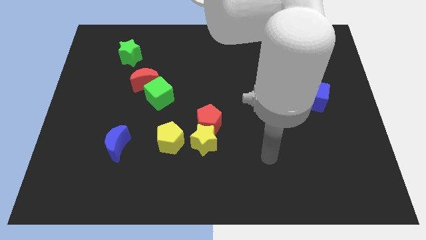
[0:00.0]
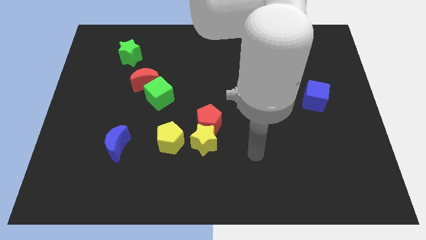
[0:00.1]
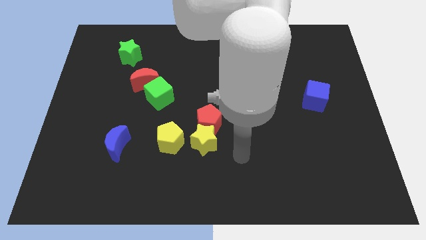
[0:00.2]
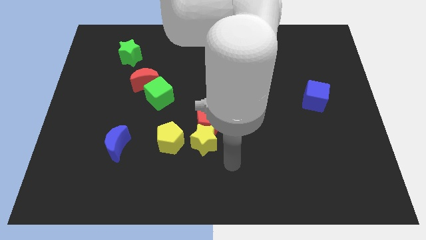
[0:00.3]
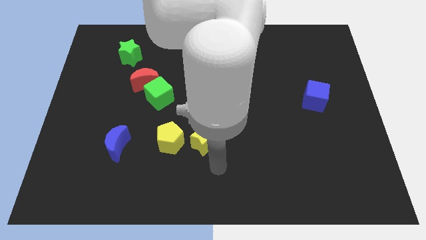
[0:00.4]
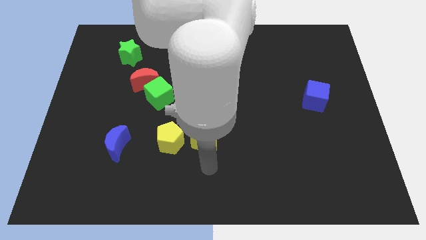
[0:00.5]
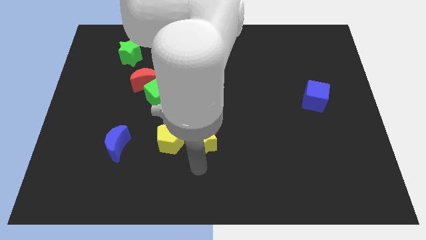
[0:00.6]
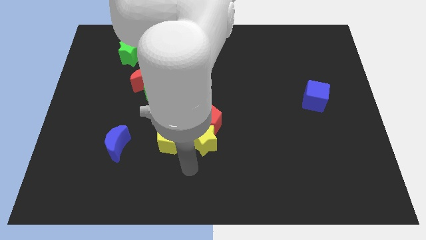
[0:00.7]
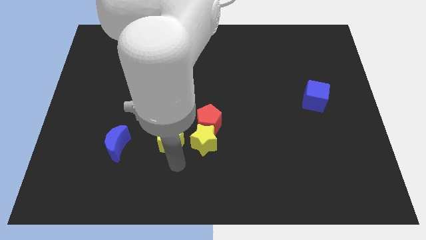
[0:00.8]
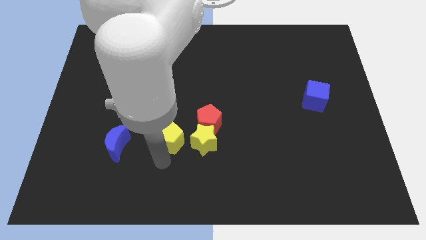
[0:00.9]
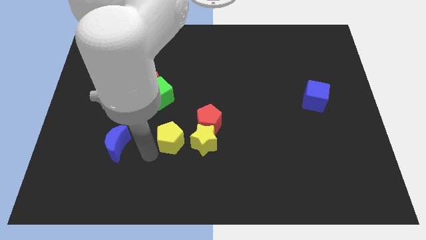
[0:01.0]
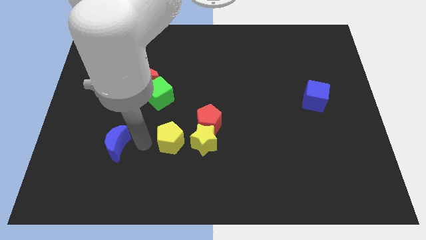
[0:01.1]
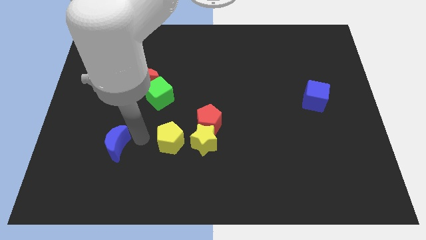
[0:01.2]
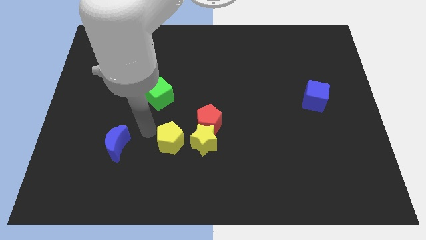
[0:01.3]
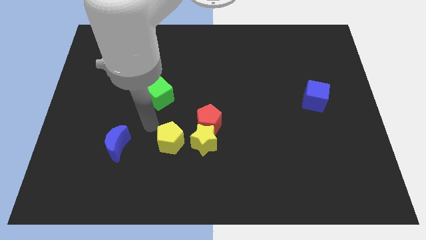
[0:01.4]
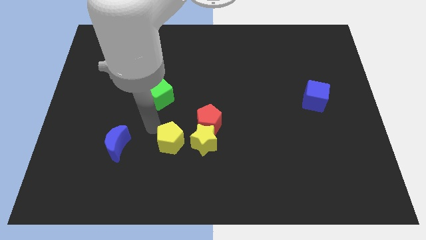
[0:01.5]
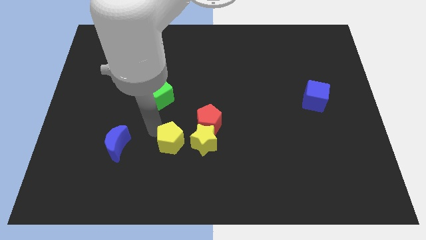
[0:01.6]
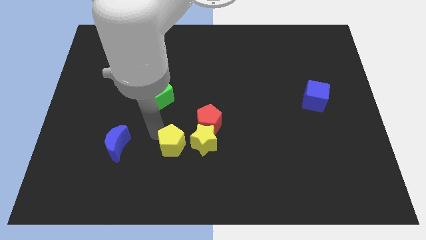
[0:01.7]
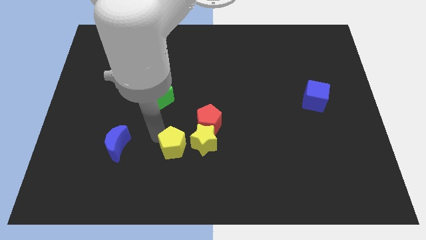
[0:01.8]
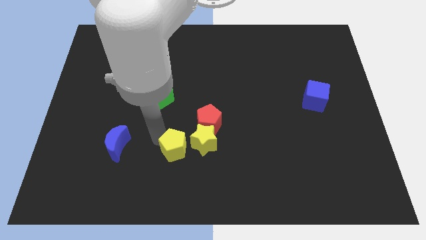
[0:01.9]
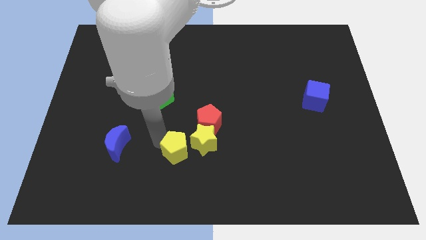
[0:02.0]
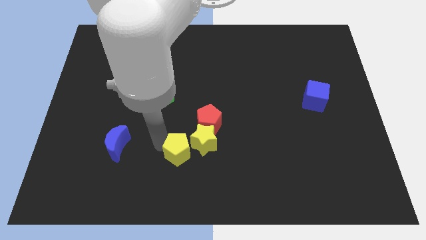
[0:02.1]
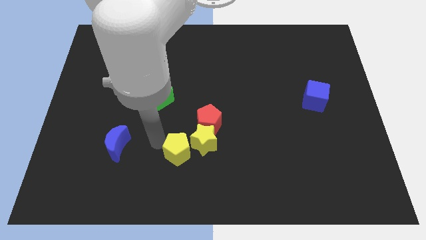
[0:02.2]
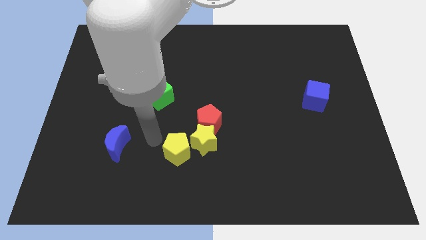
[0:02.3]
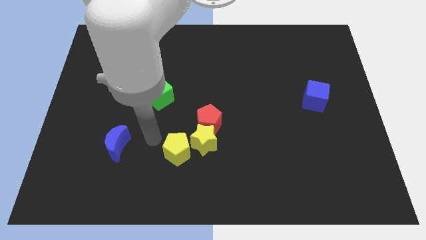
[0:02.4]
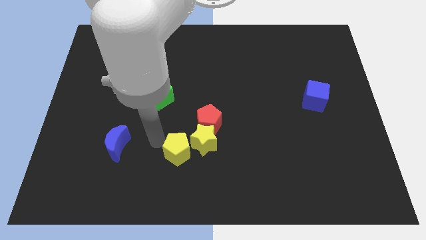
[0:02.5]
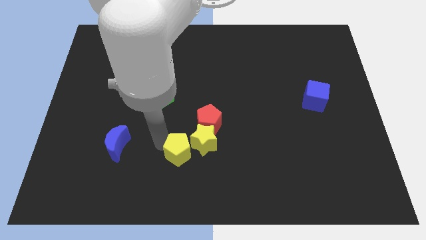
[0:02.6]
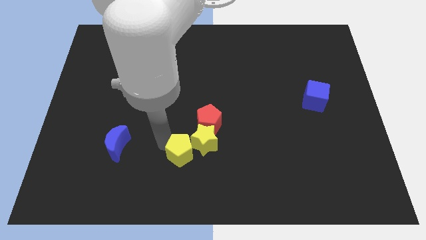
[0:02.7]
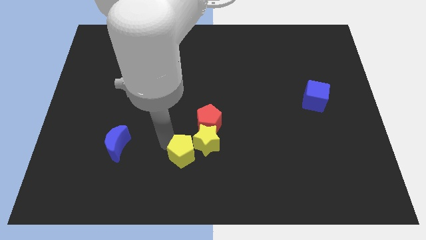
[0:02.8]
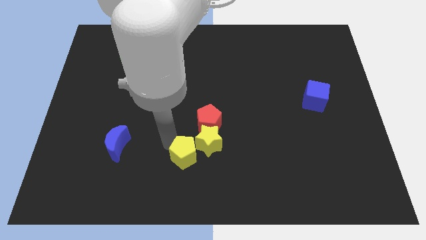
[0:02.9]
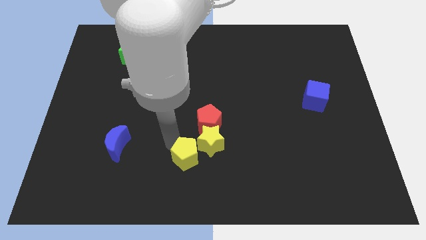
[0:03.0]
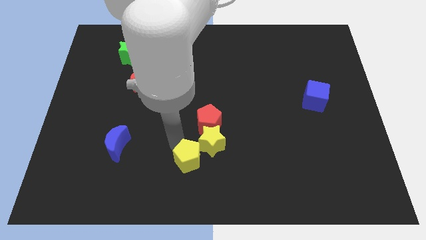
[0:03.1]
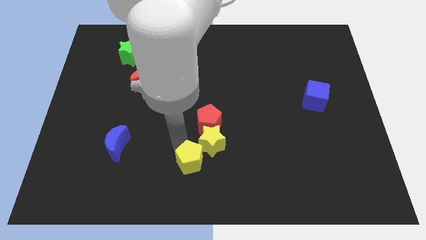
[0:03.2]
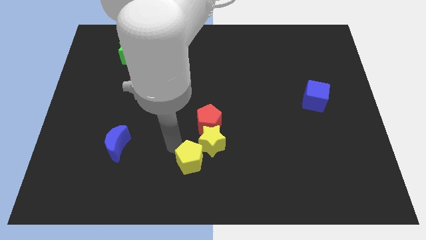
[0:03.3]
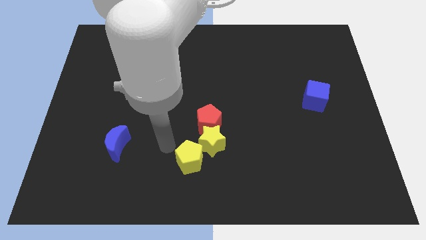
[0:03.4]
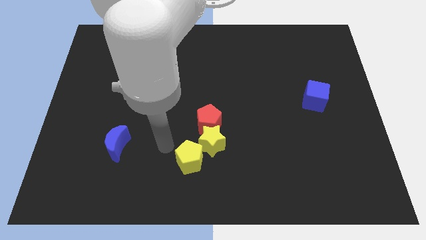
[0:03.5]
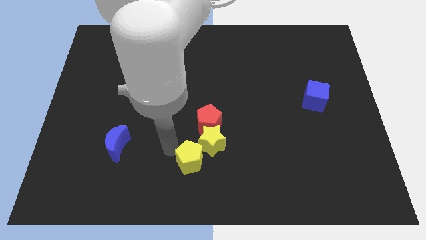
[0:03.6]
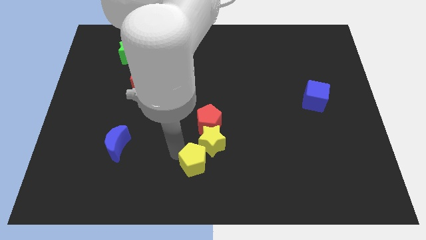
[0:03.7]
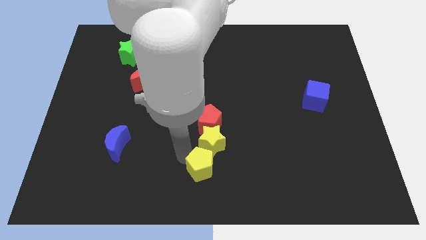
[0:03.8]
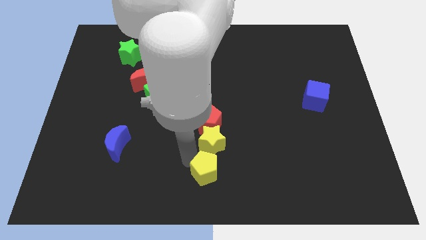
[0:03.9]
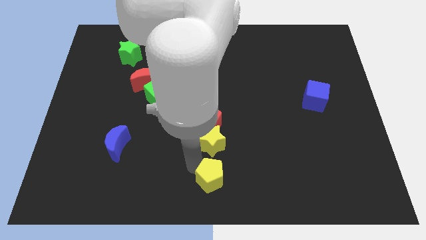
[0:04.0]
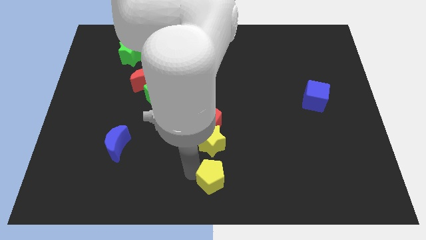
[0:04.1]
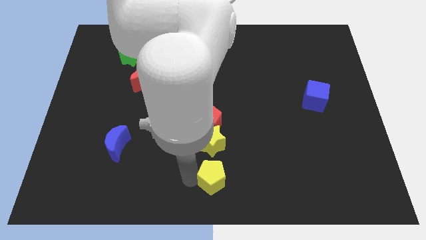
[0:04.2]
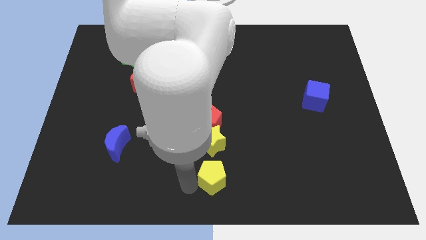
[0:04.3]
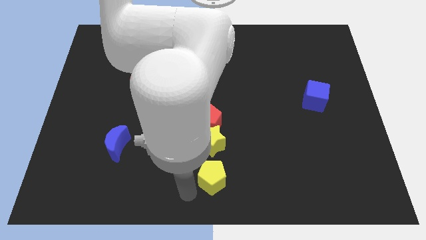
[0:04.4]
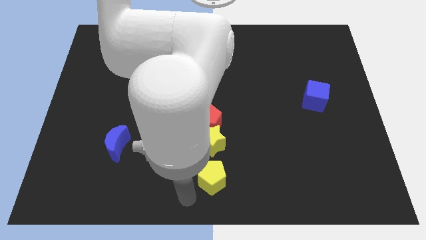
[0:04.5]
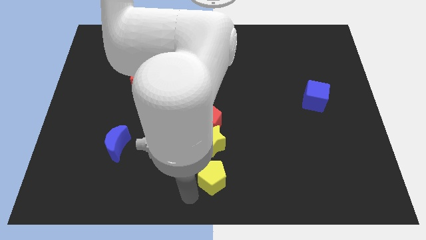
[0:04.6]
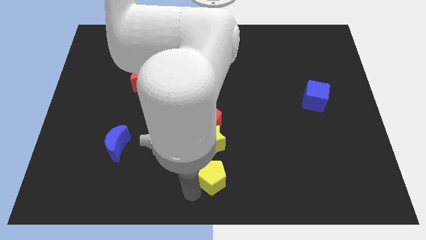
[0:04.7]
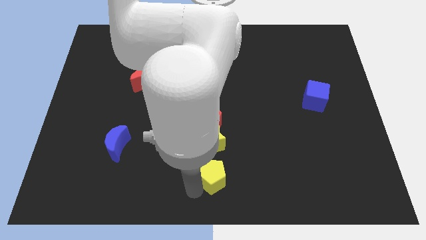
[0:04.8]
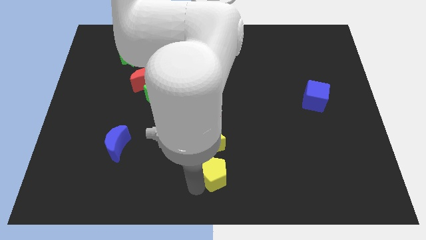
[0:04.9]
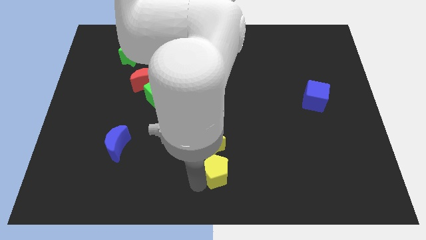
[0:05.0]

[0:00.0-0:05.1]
slide the yellow pentagon slightly right

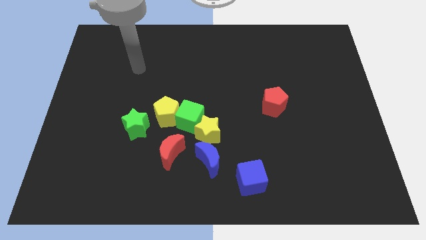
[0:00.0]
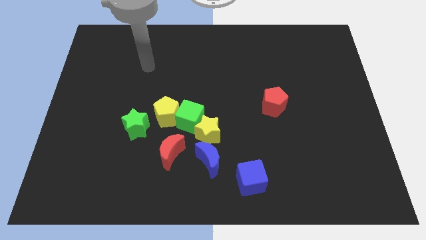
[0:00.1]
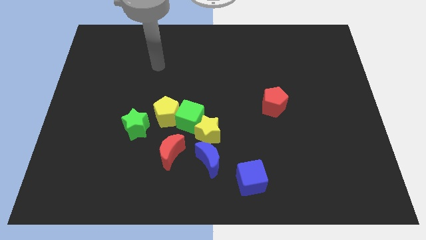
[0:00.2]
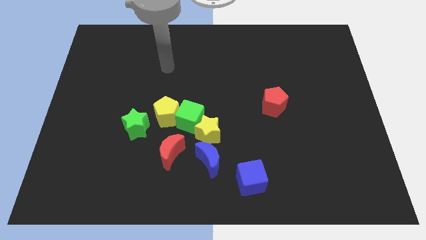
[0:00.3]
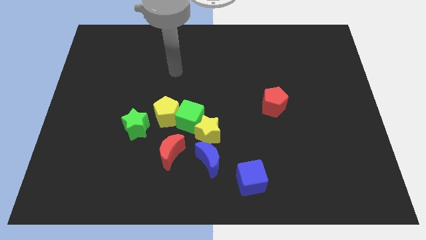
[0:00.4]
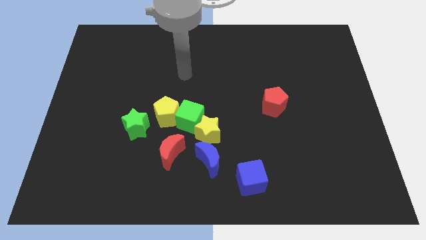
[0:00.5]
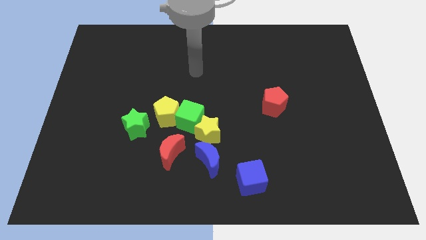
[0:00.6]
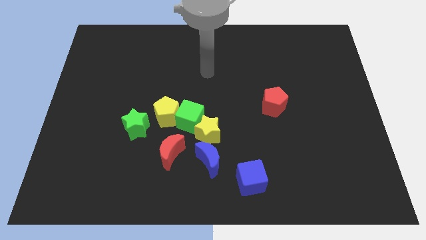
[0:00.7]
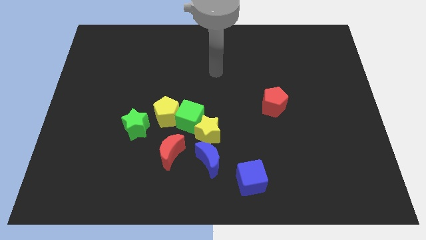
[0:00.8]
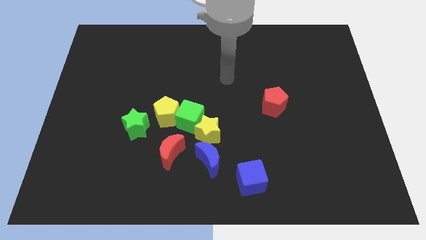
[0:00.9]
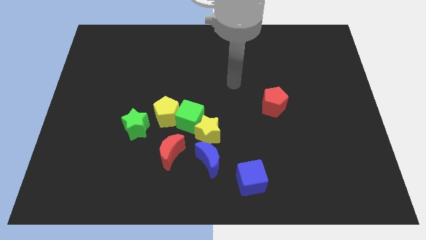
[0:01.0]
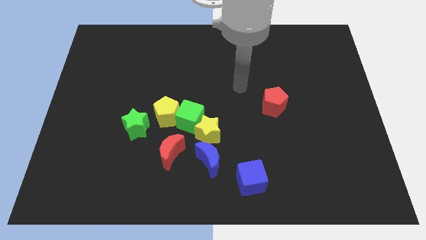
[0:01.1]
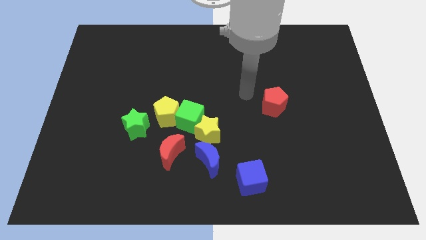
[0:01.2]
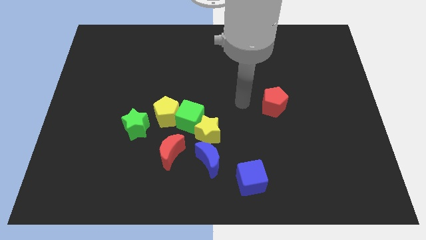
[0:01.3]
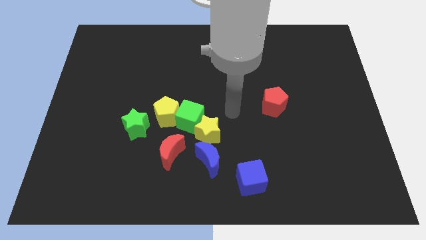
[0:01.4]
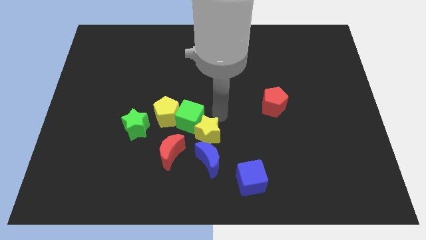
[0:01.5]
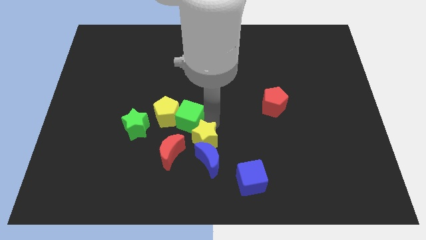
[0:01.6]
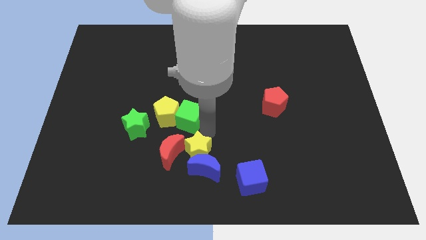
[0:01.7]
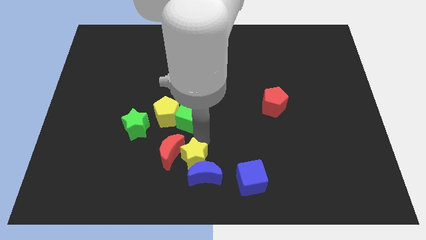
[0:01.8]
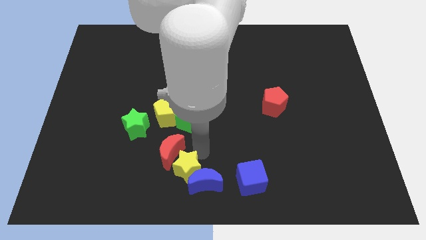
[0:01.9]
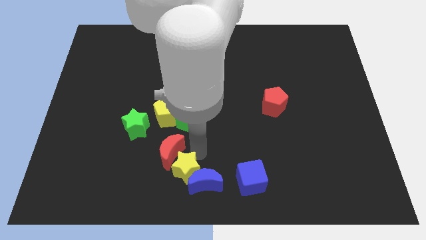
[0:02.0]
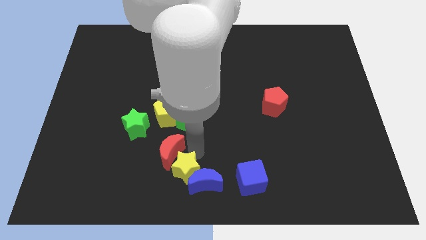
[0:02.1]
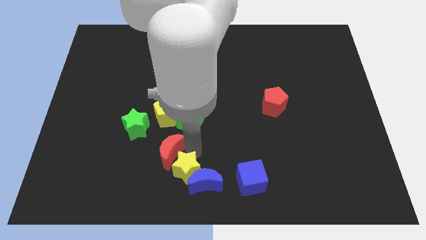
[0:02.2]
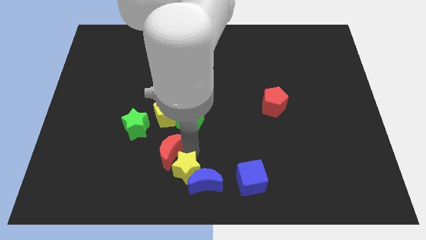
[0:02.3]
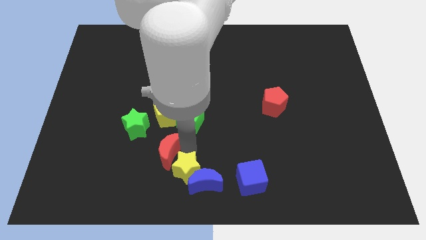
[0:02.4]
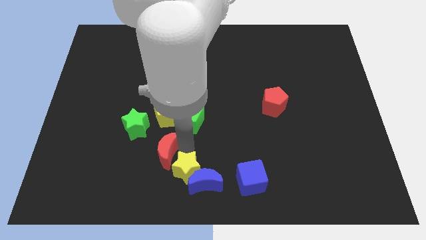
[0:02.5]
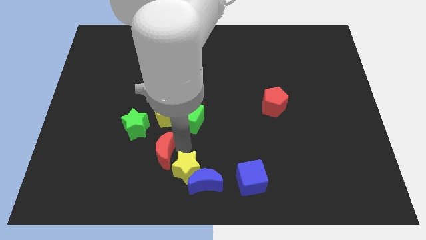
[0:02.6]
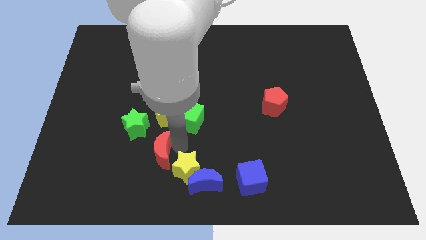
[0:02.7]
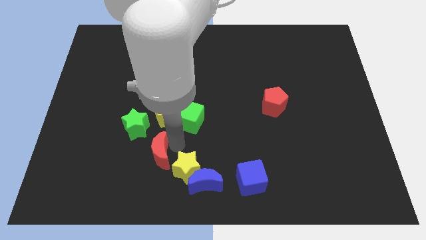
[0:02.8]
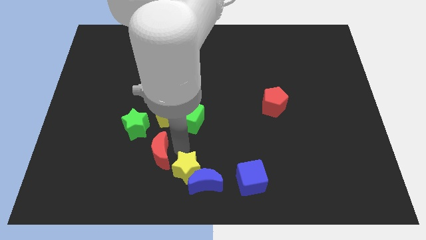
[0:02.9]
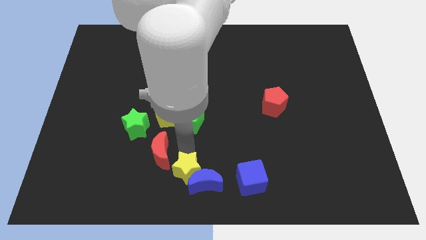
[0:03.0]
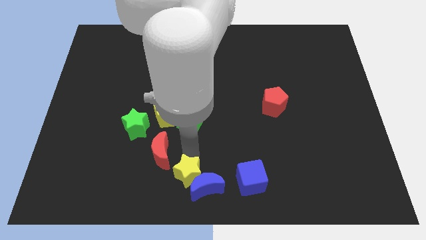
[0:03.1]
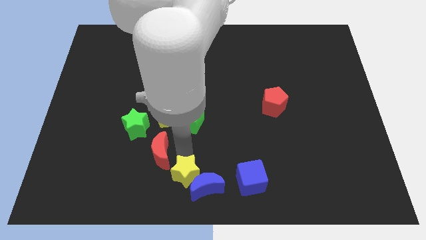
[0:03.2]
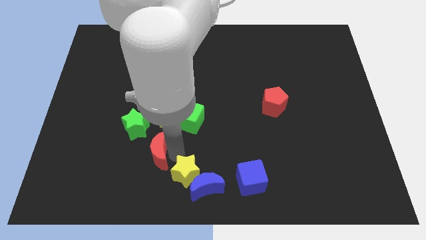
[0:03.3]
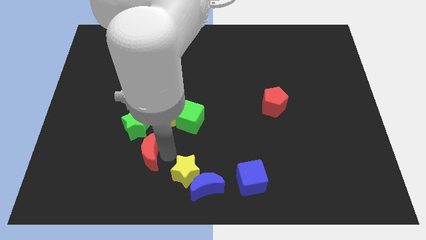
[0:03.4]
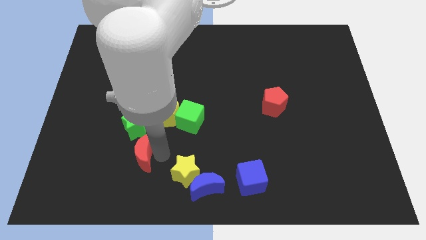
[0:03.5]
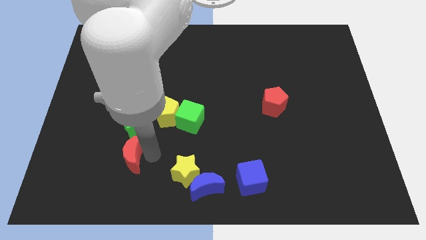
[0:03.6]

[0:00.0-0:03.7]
slide the red moon somewhat left
